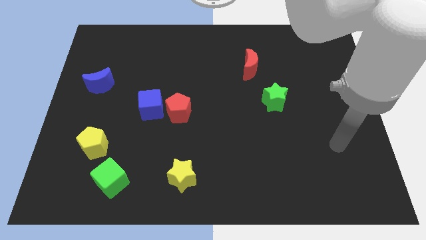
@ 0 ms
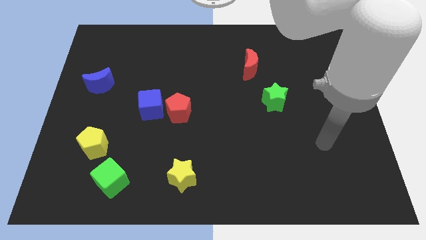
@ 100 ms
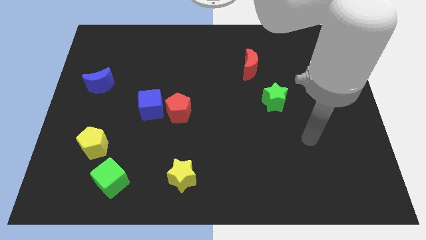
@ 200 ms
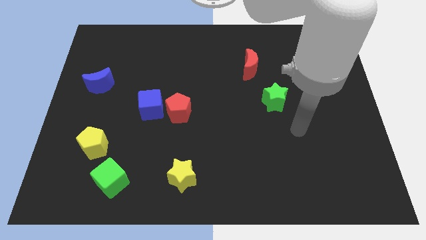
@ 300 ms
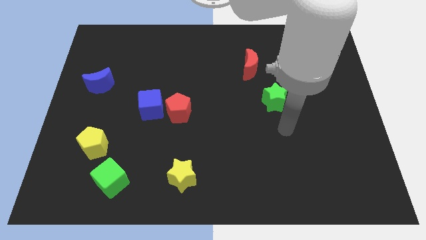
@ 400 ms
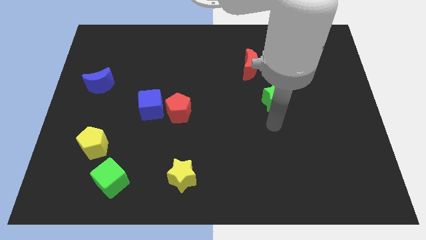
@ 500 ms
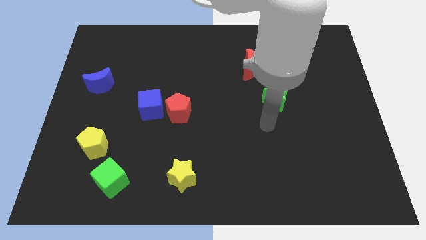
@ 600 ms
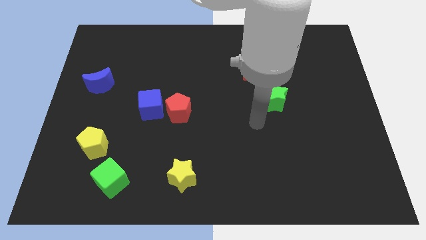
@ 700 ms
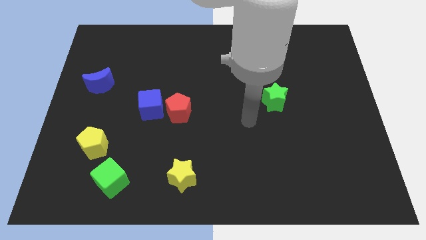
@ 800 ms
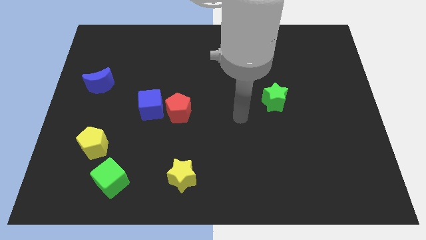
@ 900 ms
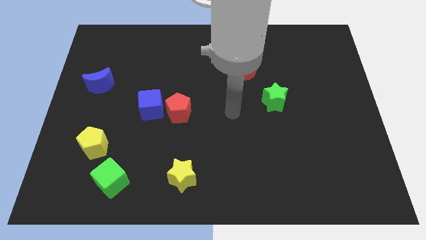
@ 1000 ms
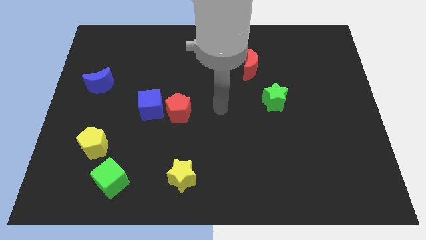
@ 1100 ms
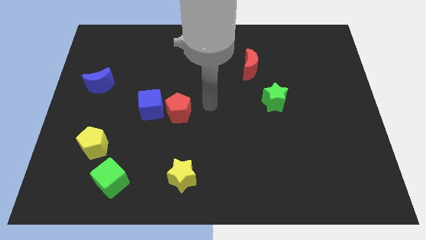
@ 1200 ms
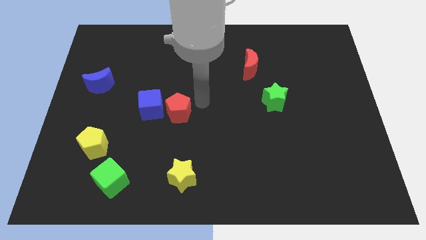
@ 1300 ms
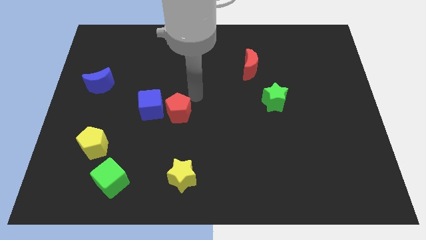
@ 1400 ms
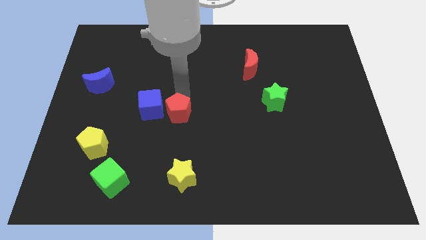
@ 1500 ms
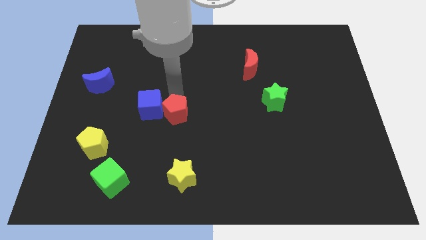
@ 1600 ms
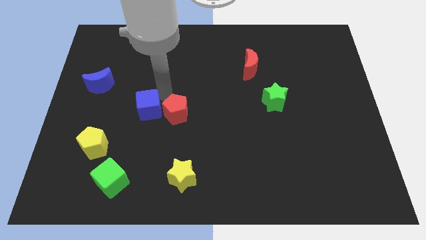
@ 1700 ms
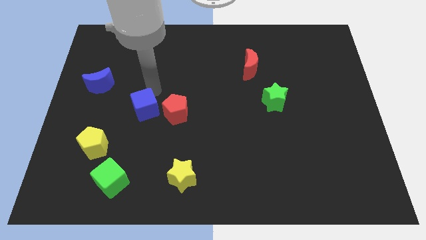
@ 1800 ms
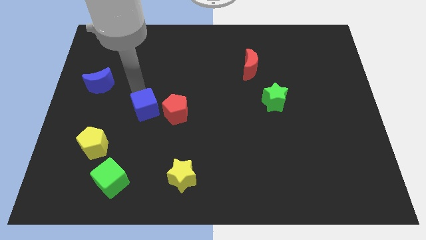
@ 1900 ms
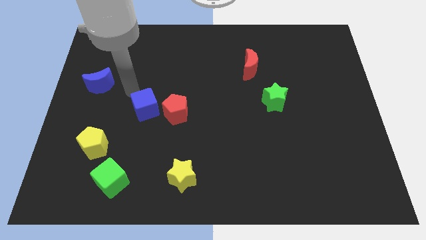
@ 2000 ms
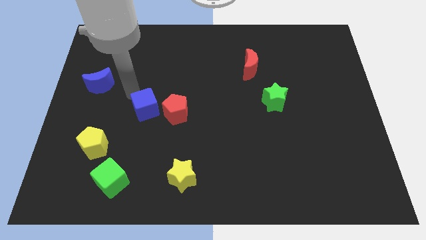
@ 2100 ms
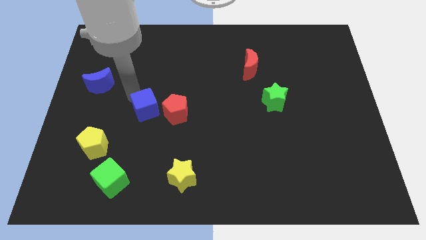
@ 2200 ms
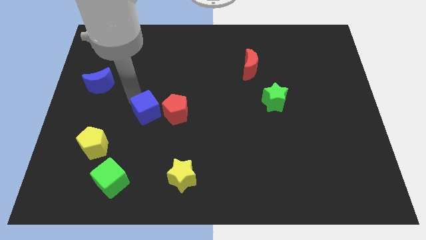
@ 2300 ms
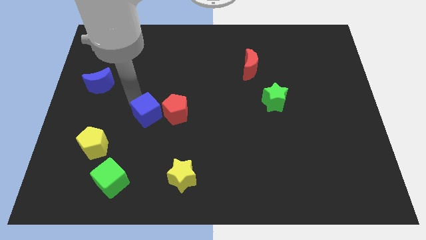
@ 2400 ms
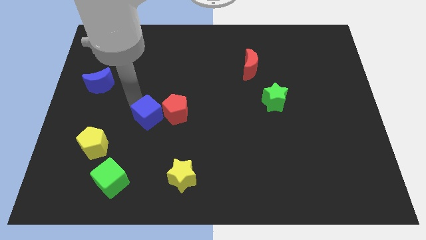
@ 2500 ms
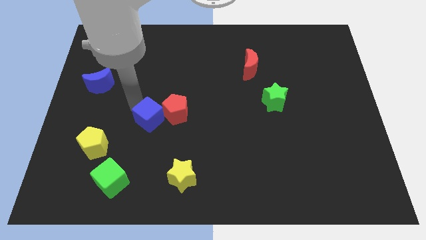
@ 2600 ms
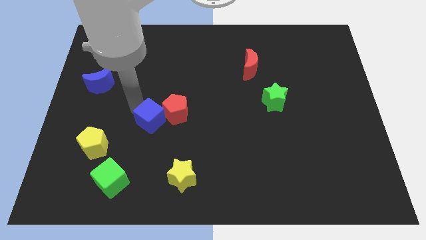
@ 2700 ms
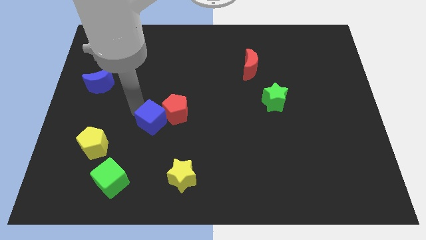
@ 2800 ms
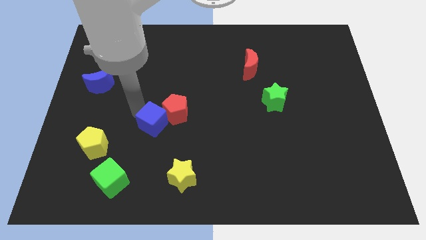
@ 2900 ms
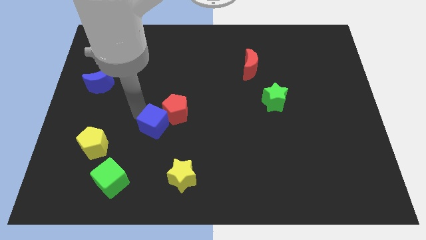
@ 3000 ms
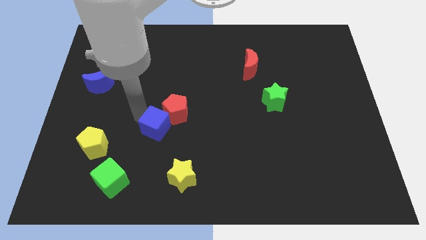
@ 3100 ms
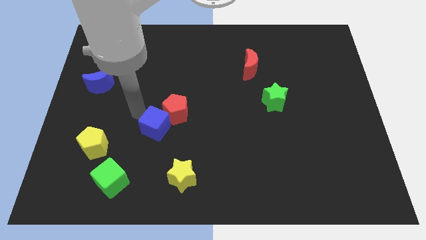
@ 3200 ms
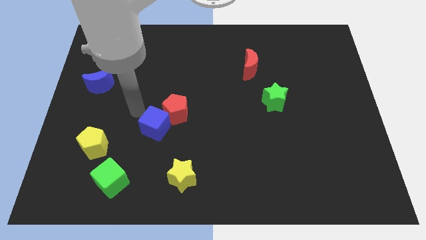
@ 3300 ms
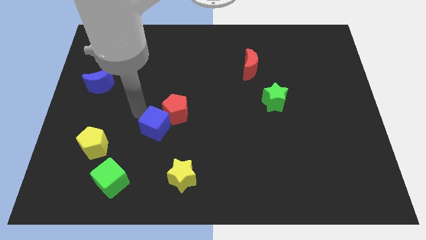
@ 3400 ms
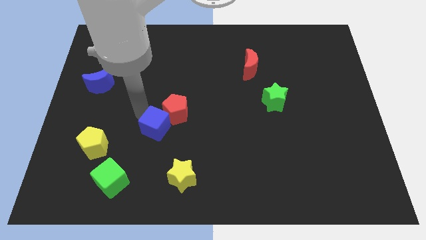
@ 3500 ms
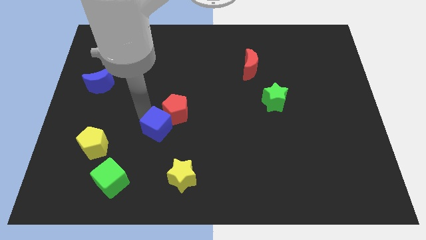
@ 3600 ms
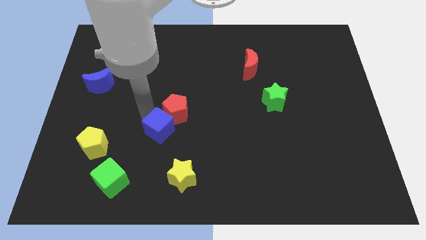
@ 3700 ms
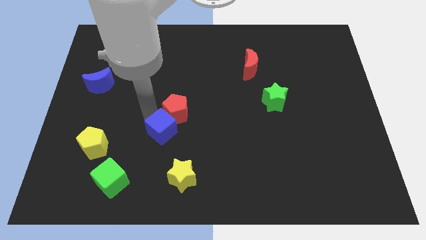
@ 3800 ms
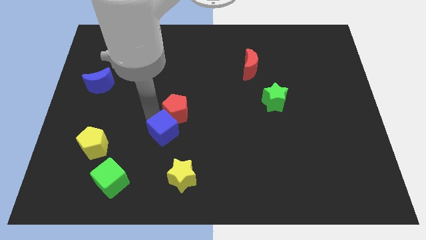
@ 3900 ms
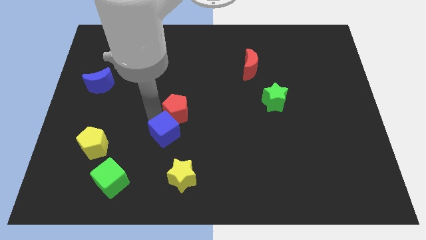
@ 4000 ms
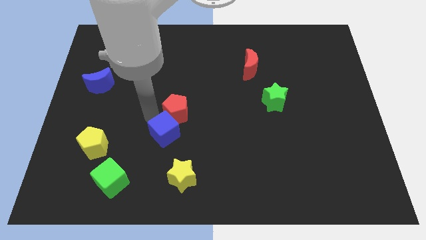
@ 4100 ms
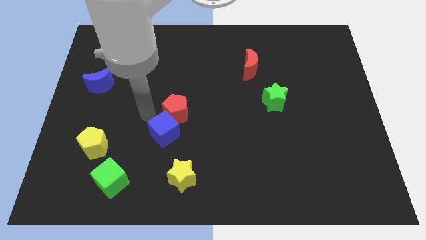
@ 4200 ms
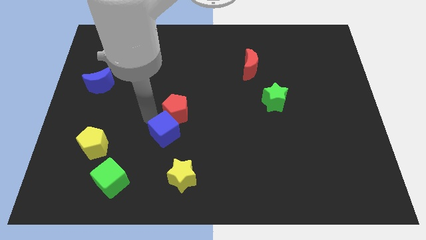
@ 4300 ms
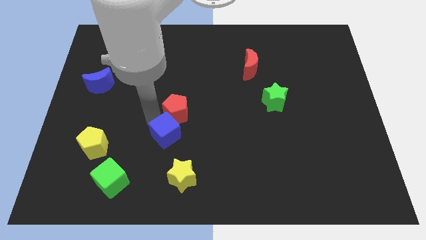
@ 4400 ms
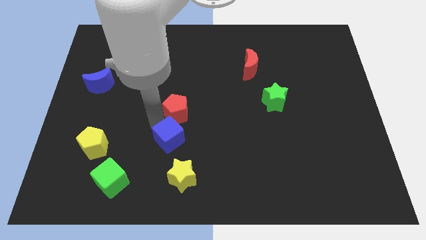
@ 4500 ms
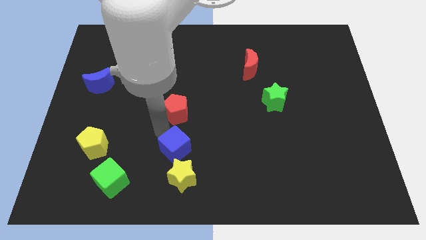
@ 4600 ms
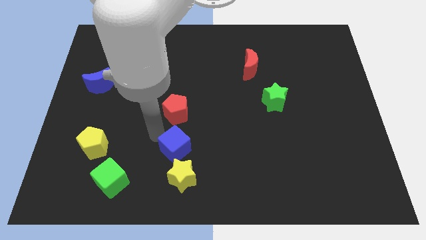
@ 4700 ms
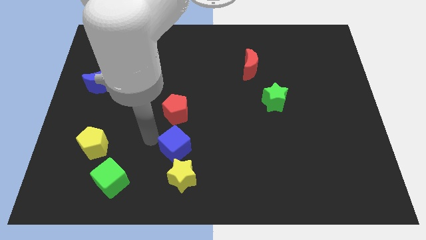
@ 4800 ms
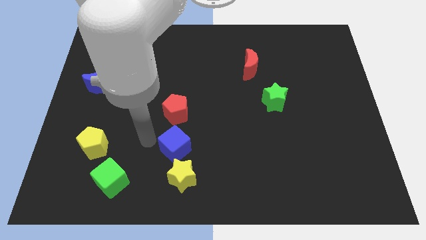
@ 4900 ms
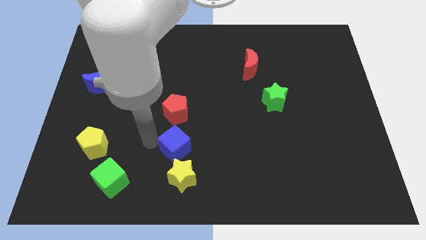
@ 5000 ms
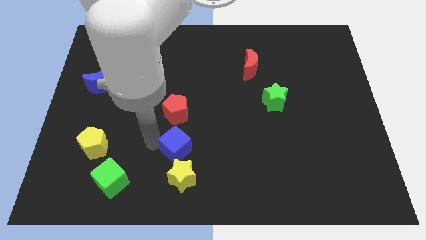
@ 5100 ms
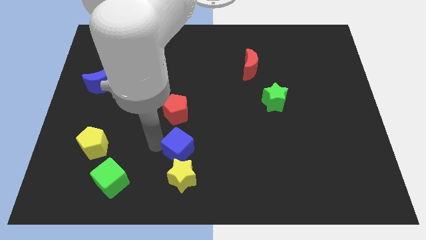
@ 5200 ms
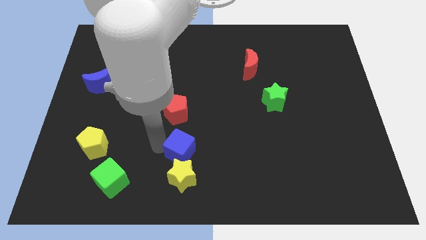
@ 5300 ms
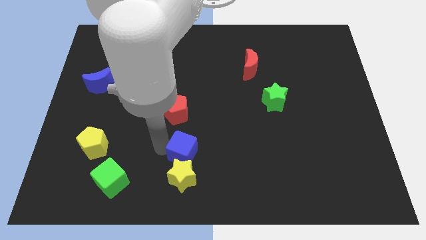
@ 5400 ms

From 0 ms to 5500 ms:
move the blue cube to the top right of the yellow star

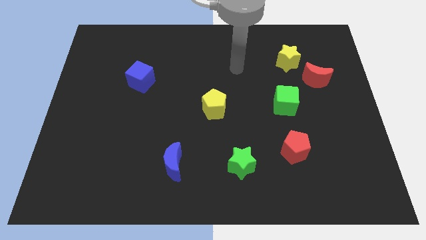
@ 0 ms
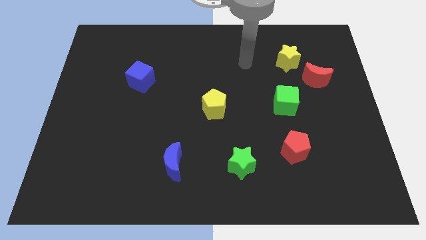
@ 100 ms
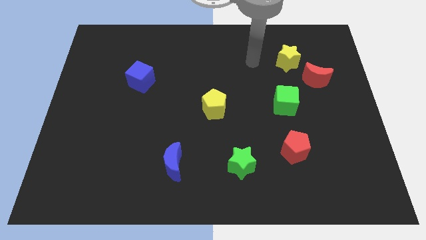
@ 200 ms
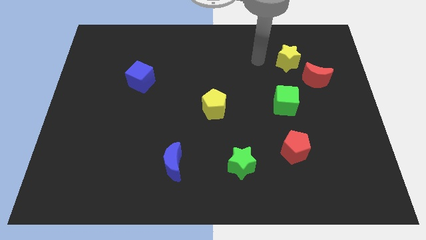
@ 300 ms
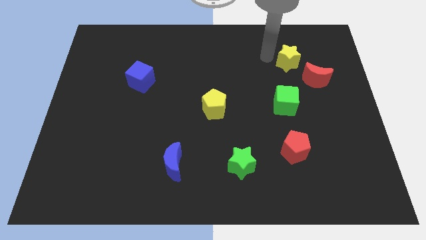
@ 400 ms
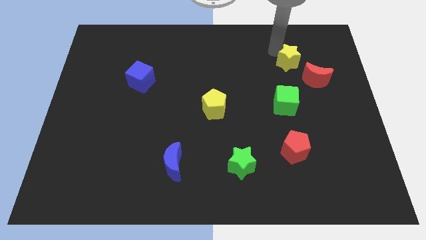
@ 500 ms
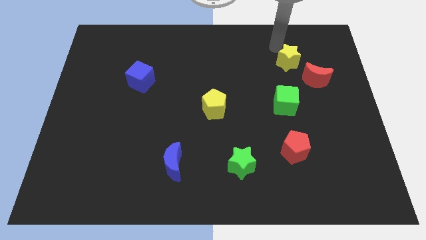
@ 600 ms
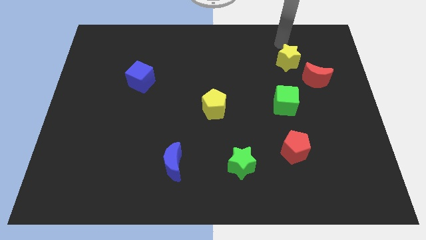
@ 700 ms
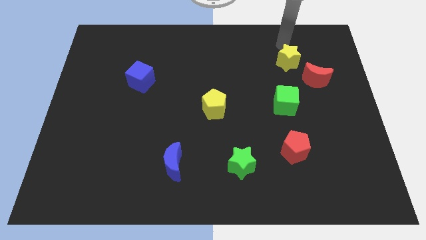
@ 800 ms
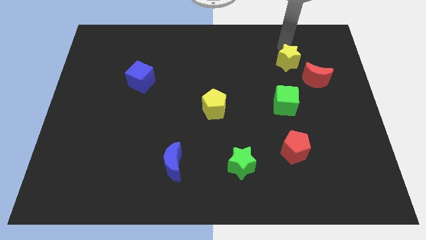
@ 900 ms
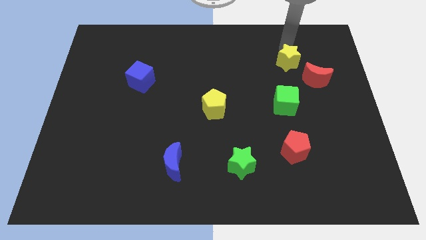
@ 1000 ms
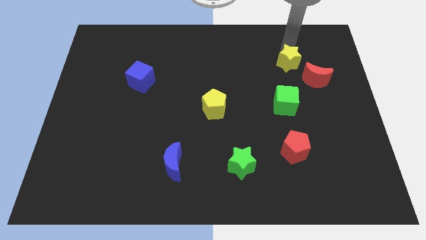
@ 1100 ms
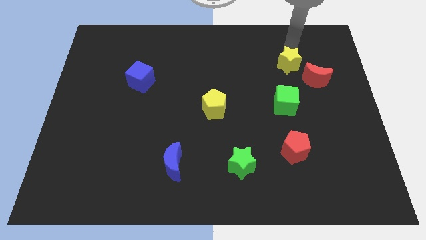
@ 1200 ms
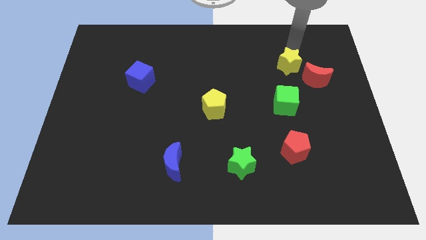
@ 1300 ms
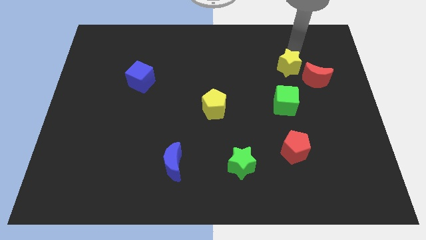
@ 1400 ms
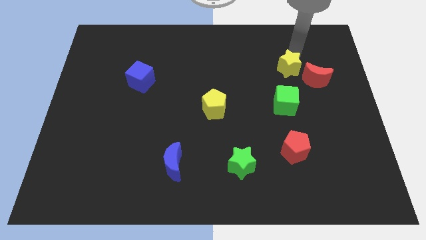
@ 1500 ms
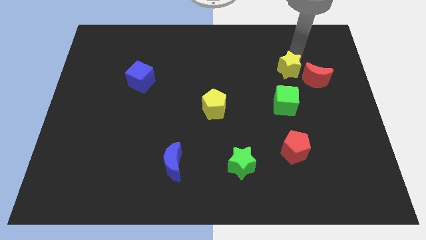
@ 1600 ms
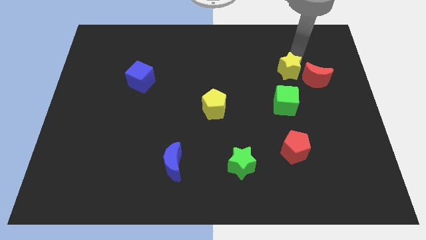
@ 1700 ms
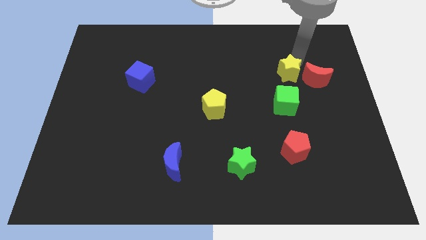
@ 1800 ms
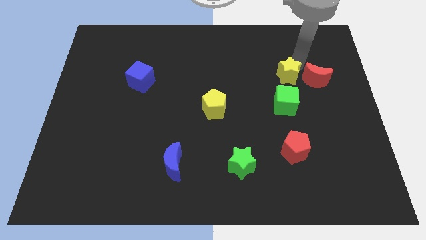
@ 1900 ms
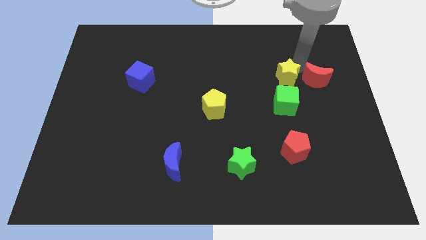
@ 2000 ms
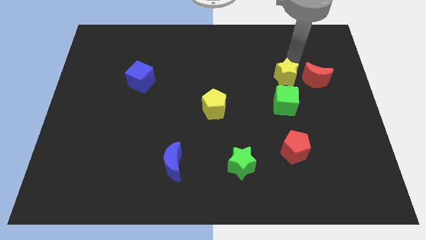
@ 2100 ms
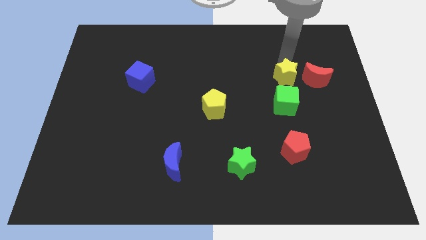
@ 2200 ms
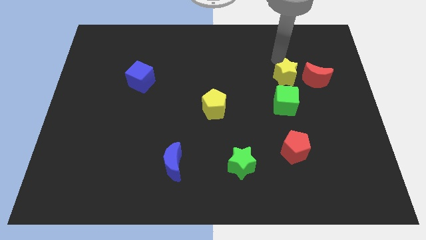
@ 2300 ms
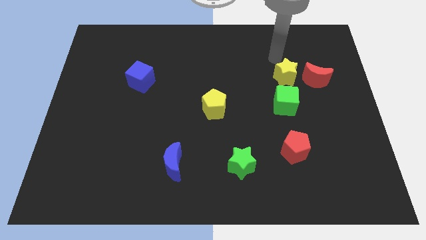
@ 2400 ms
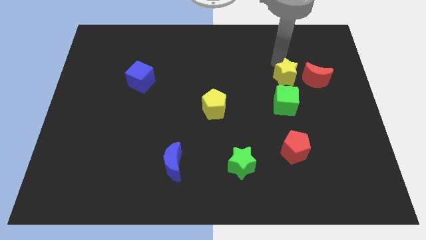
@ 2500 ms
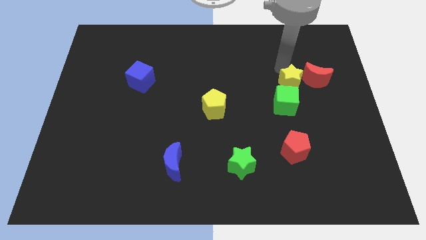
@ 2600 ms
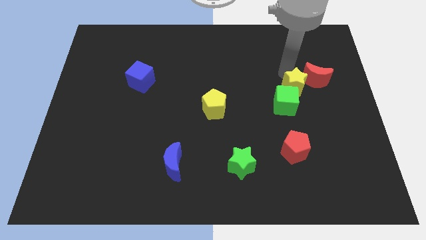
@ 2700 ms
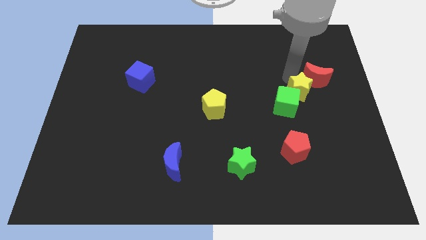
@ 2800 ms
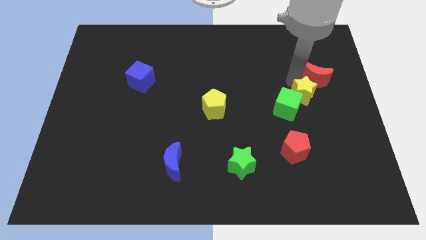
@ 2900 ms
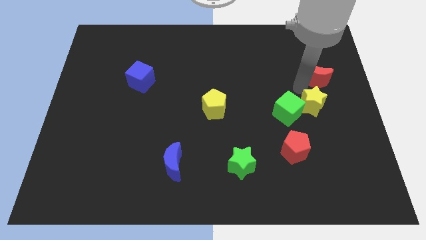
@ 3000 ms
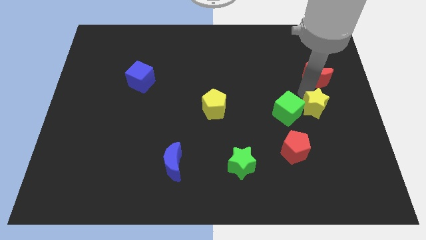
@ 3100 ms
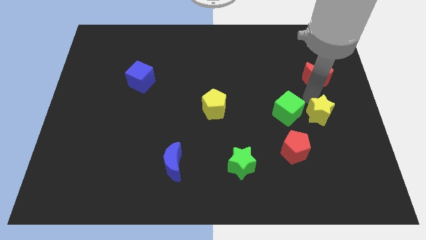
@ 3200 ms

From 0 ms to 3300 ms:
push the yellow star to the top right of the red pentagon
